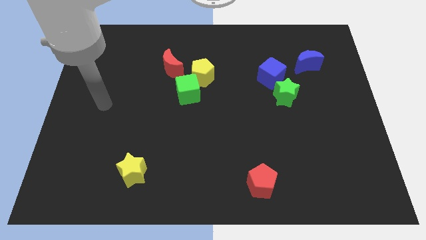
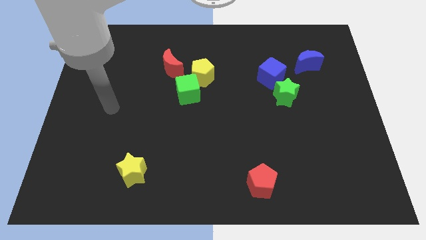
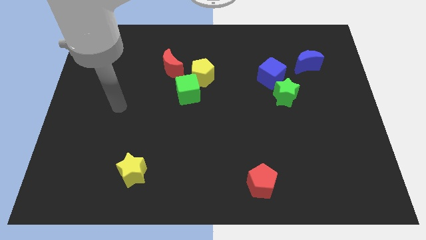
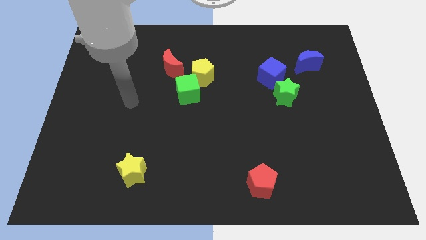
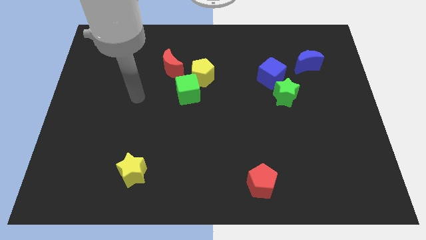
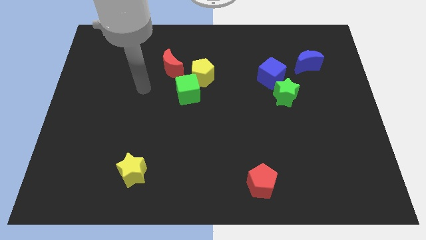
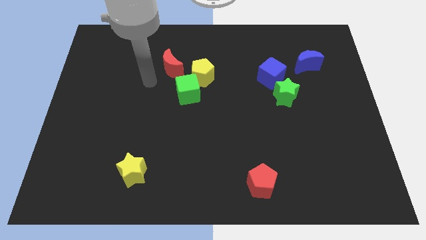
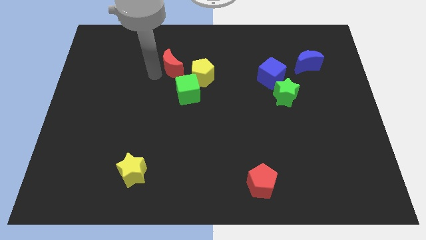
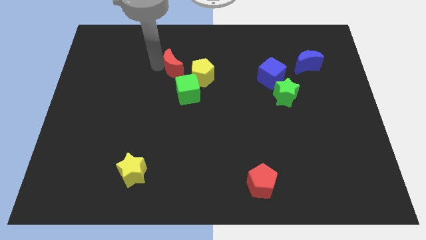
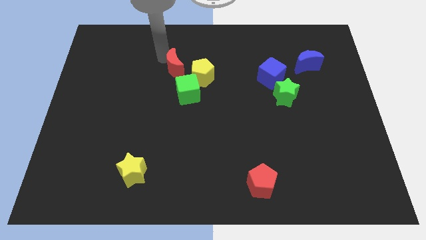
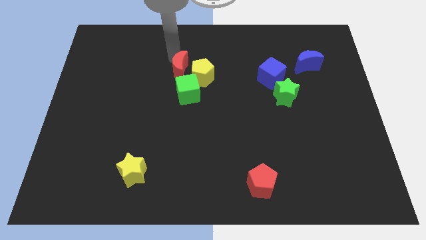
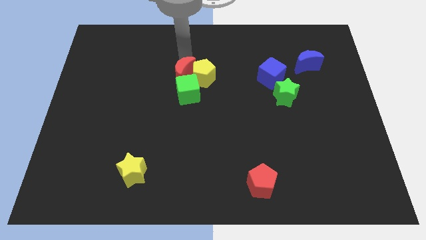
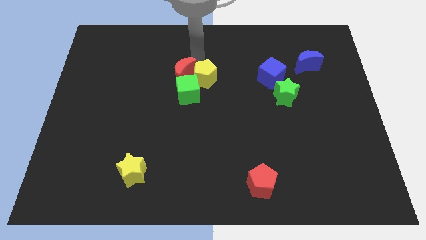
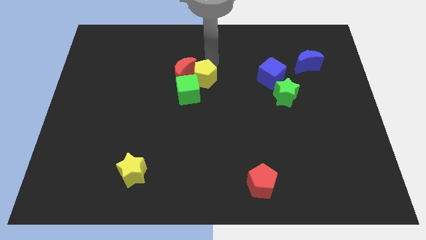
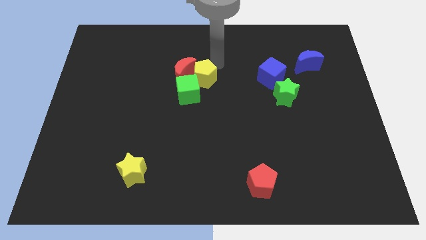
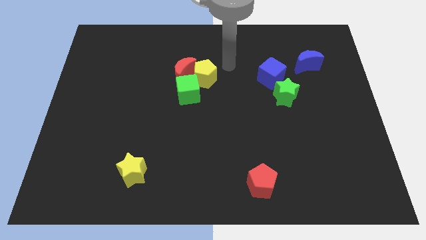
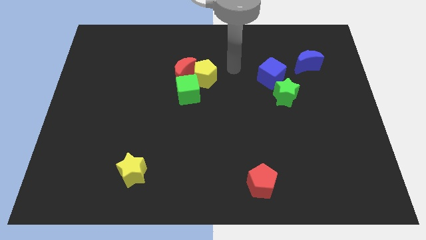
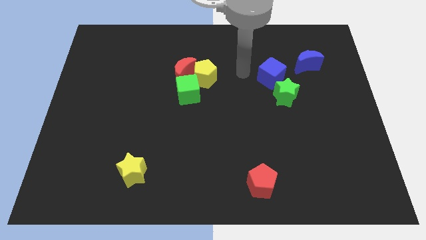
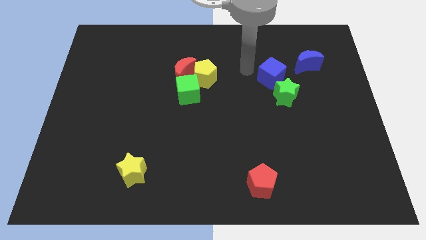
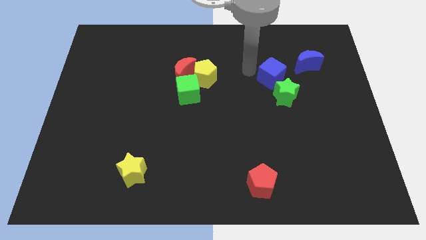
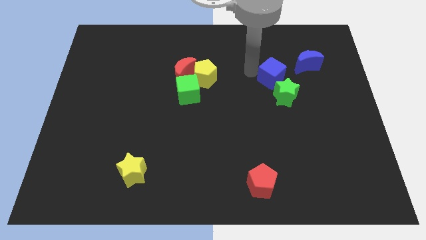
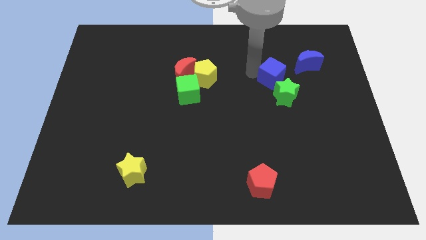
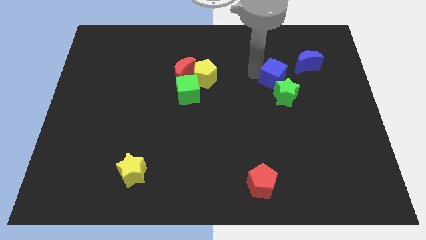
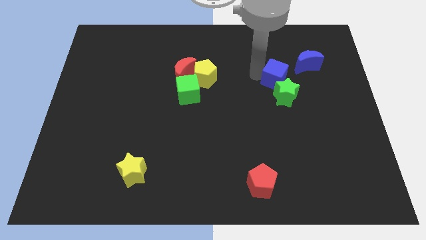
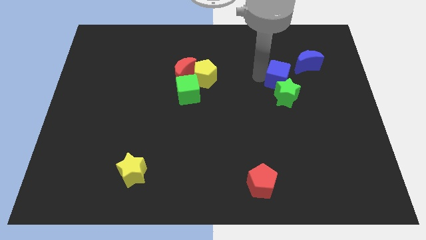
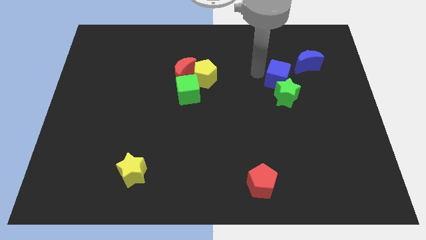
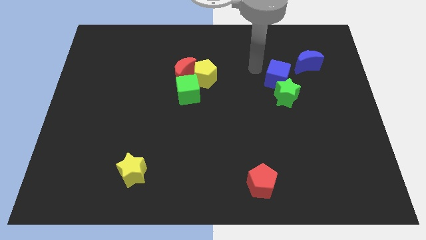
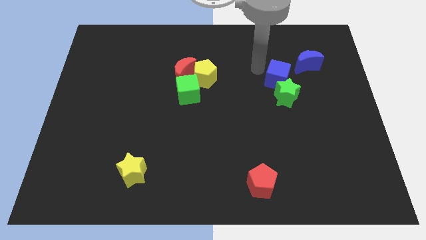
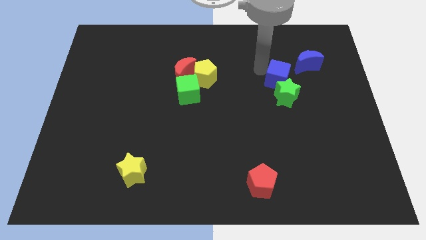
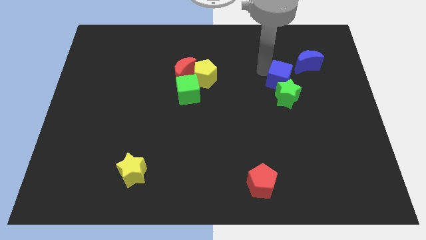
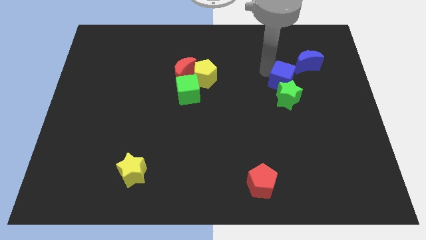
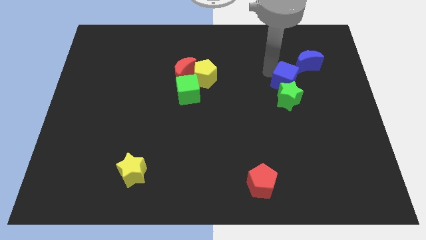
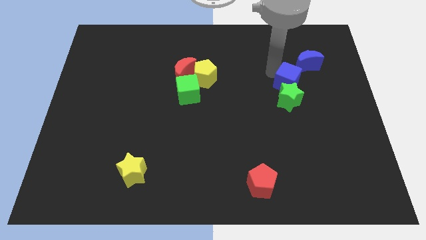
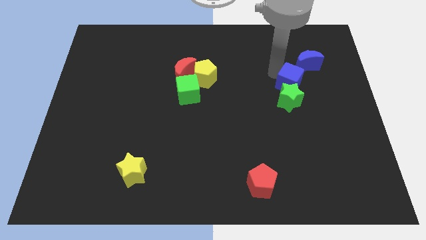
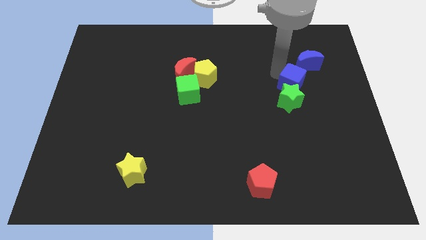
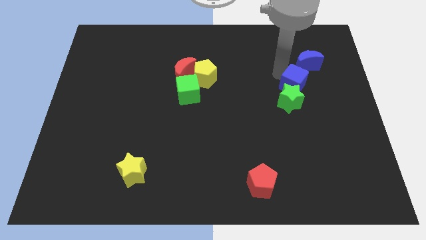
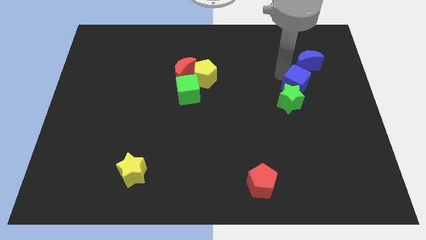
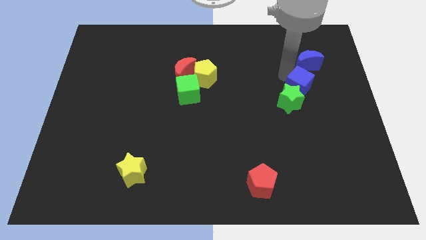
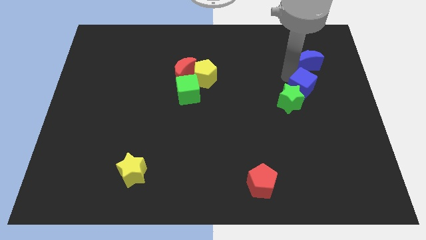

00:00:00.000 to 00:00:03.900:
slightly move the blue cube down and right diagonally

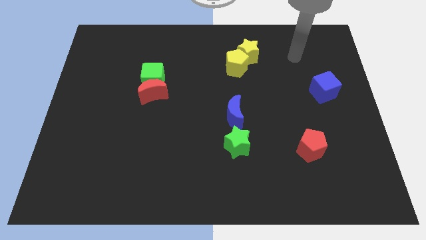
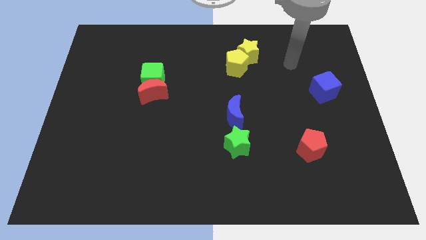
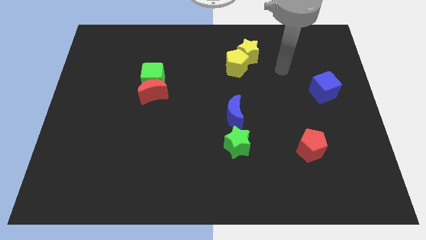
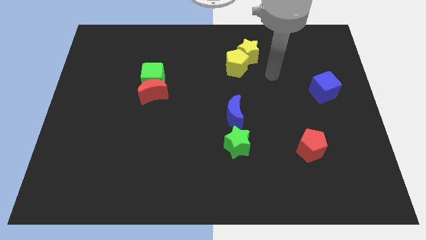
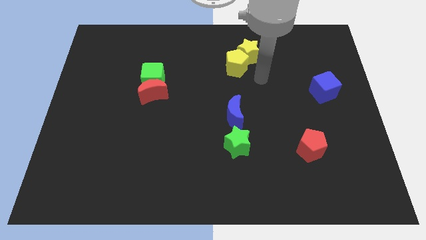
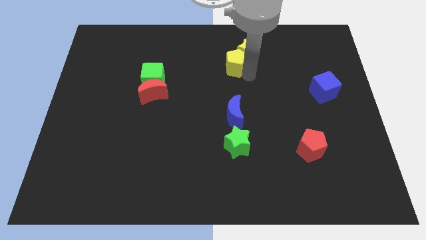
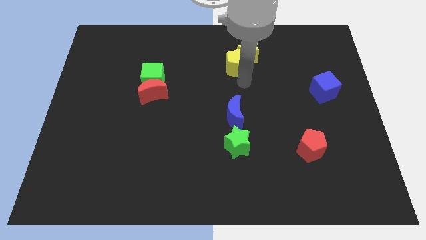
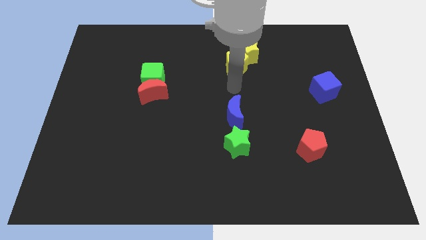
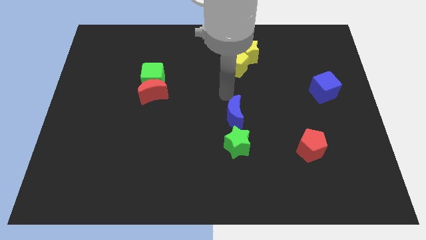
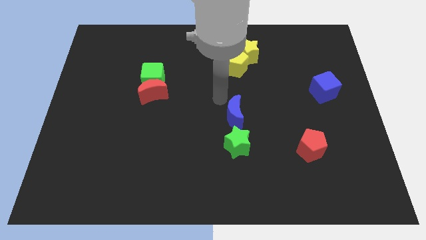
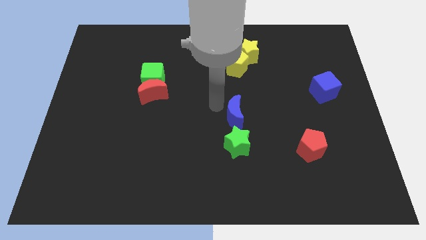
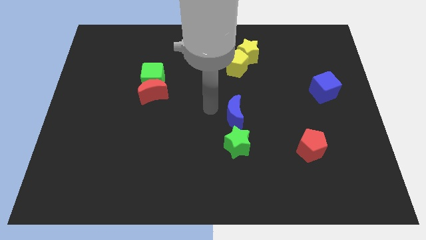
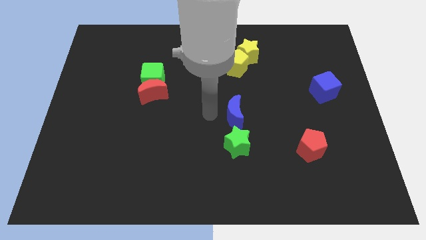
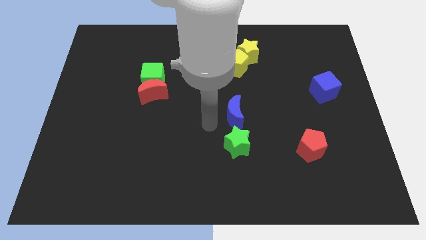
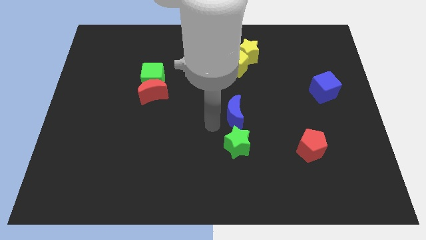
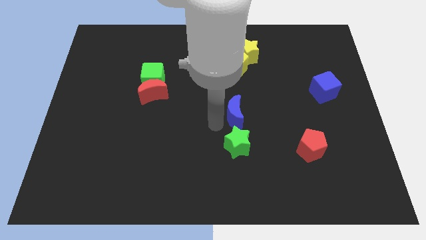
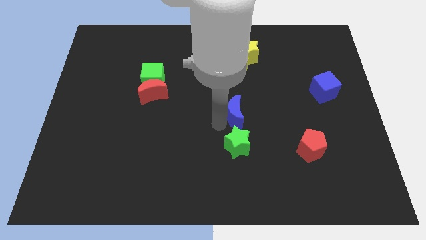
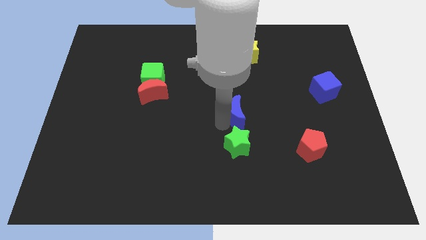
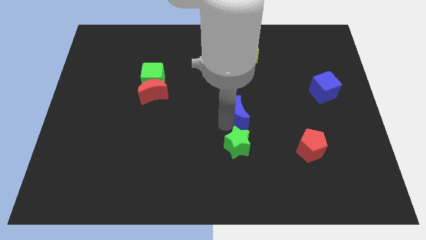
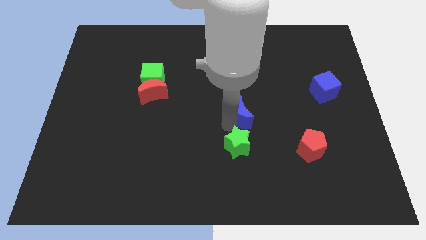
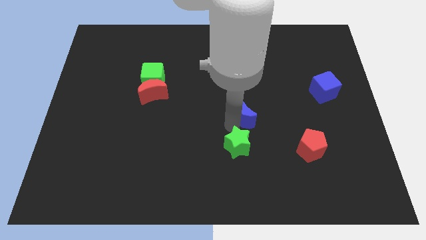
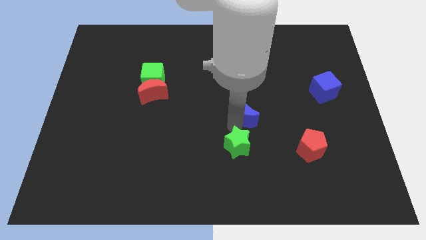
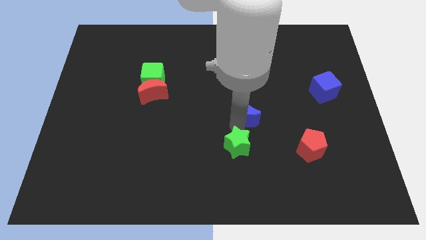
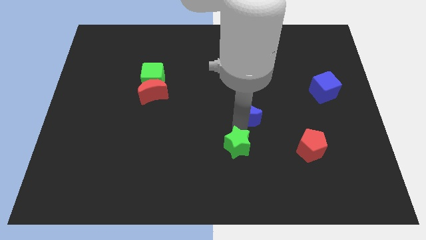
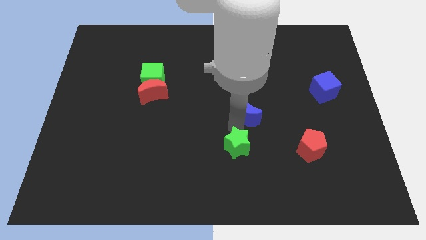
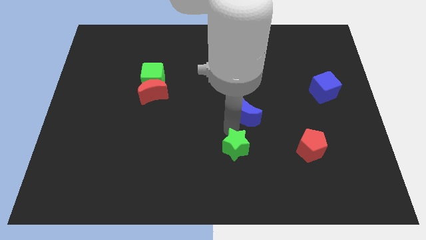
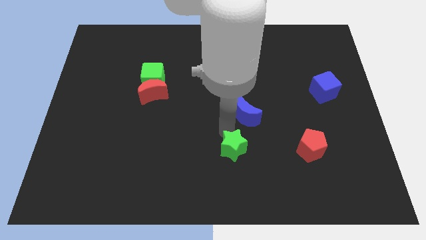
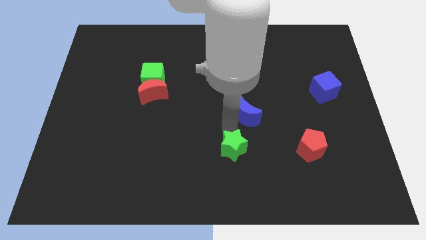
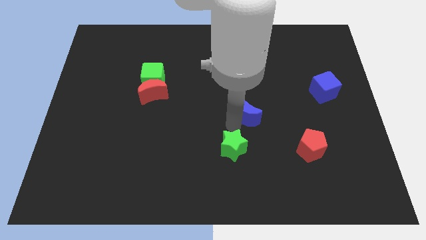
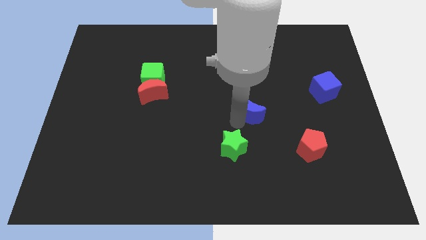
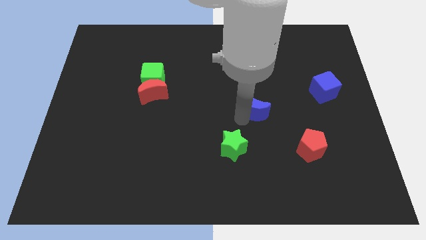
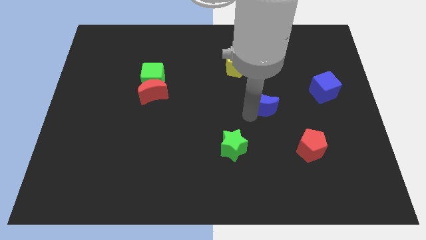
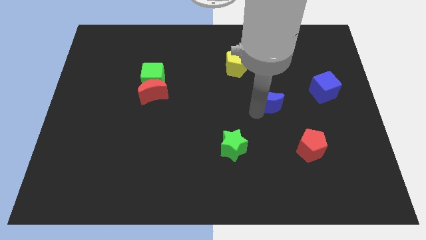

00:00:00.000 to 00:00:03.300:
slightly push the blue moon diagonally upwards and right

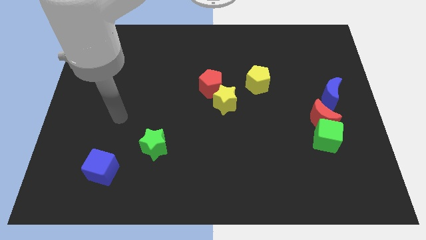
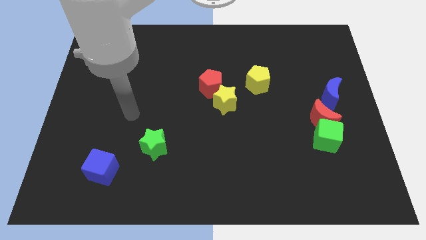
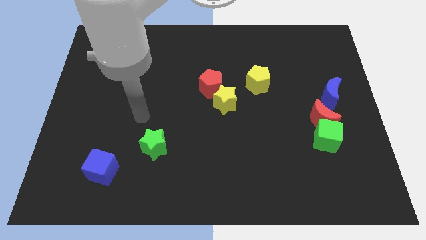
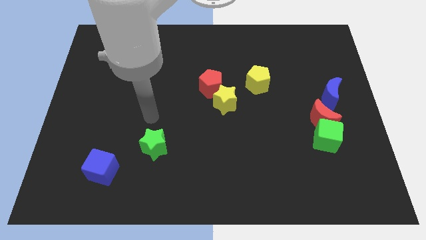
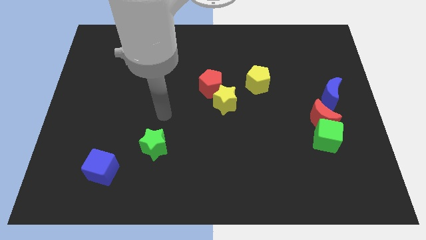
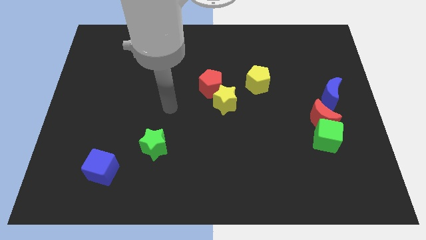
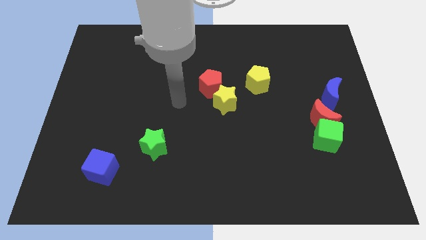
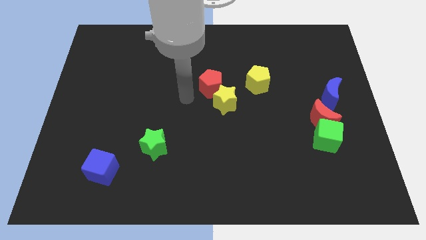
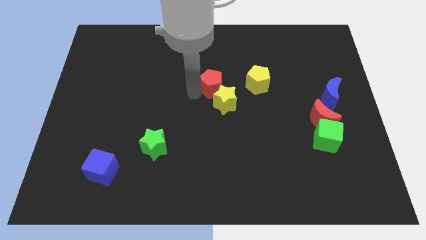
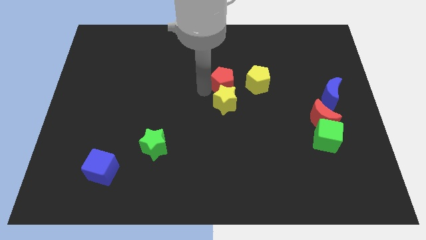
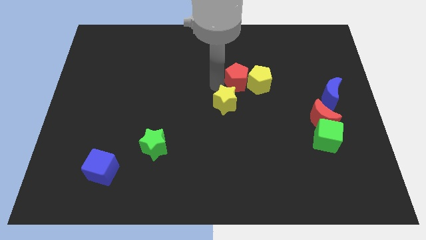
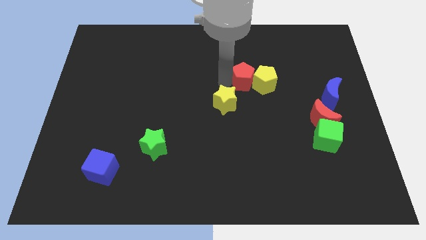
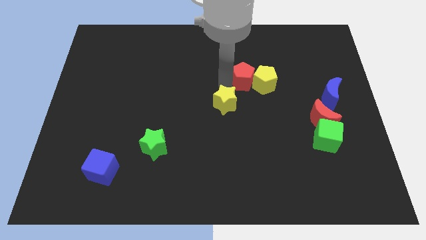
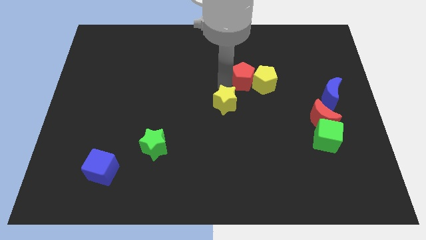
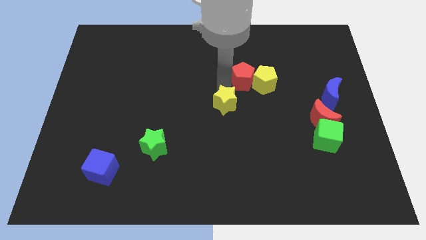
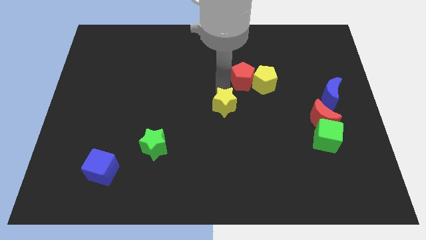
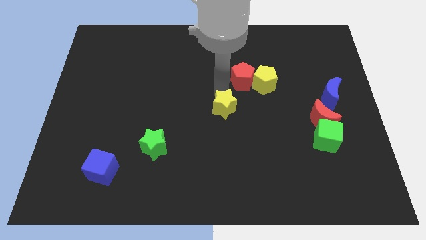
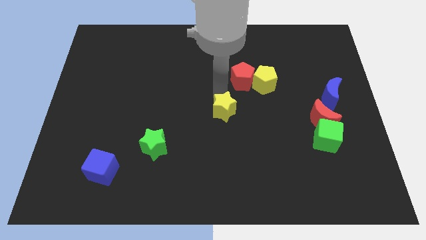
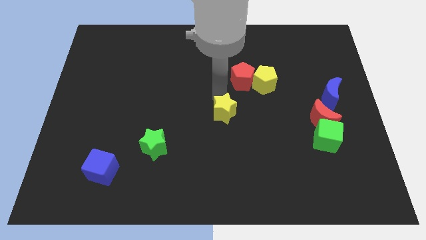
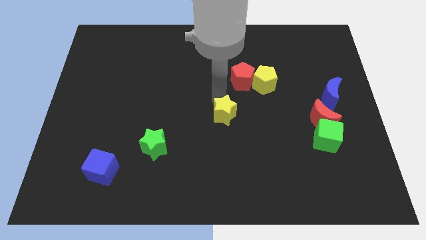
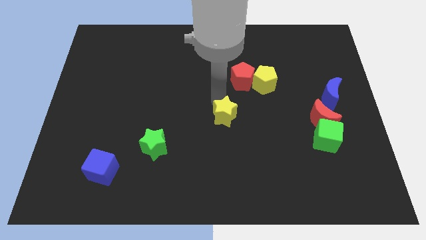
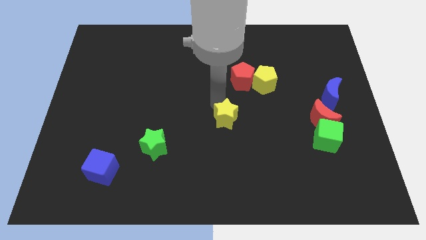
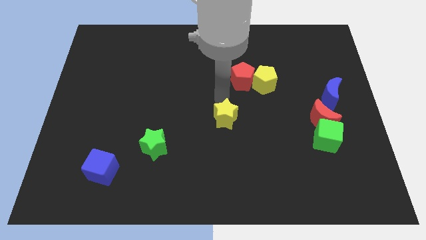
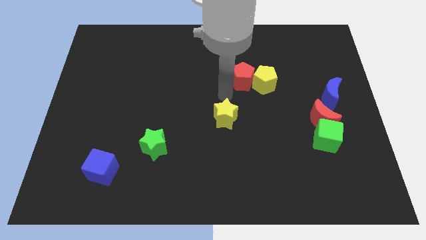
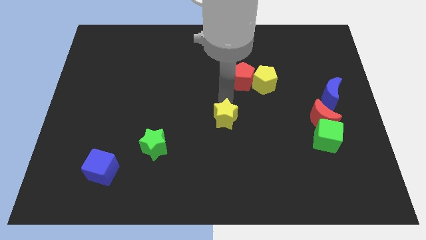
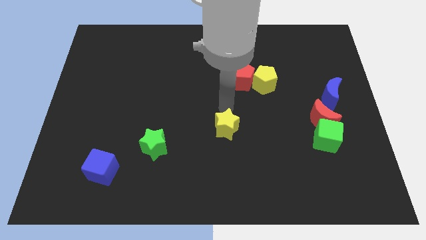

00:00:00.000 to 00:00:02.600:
push the yellow star downwards slightly
